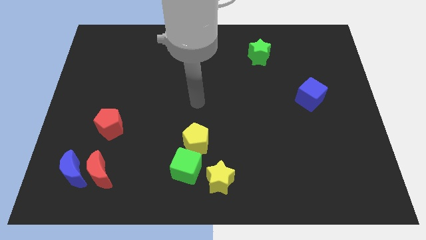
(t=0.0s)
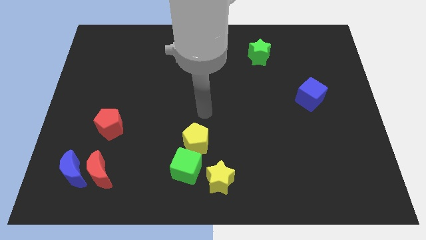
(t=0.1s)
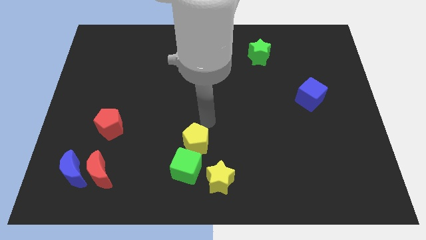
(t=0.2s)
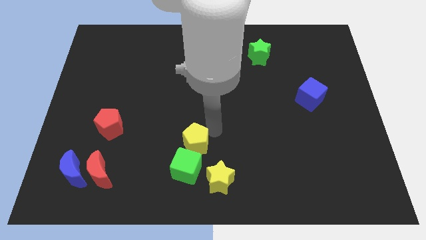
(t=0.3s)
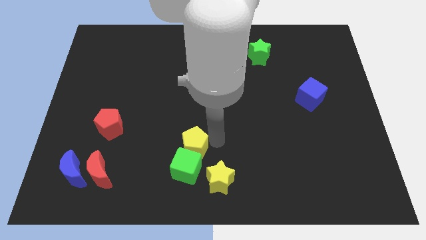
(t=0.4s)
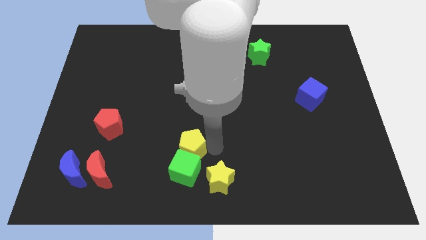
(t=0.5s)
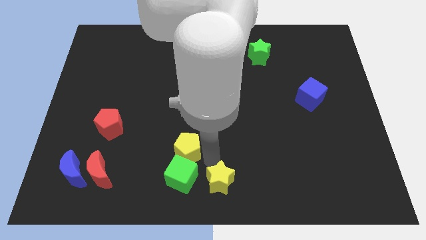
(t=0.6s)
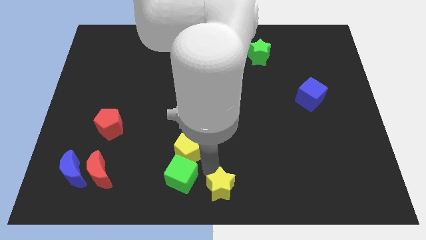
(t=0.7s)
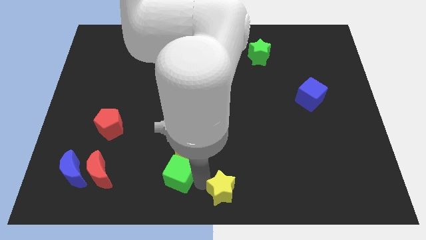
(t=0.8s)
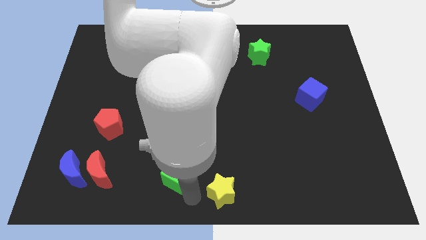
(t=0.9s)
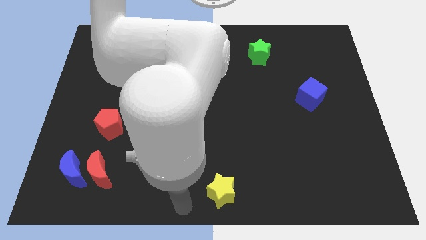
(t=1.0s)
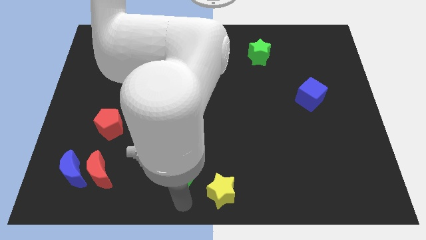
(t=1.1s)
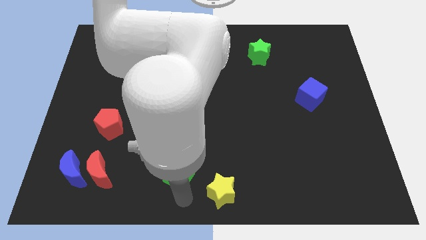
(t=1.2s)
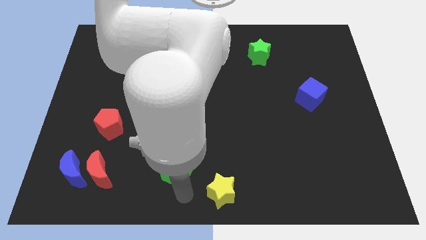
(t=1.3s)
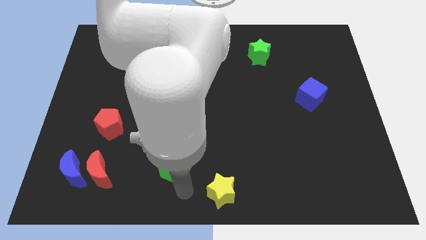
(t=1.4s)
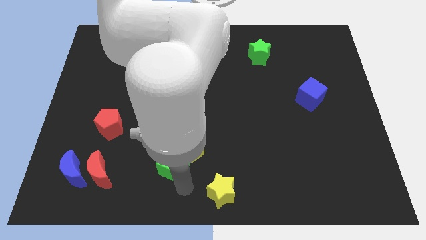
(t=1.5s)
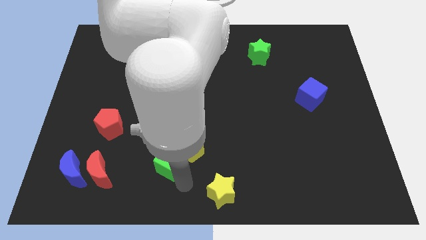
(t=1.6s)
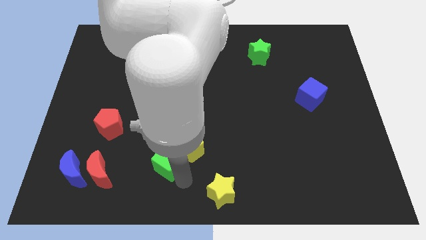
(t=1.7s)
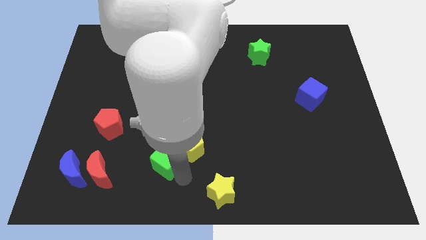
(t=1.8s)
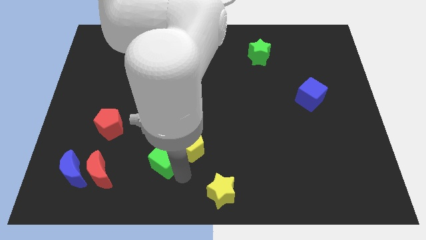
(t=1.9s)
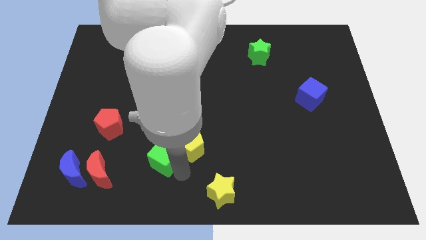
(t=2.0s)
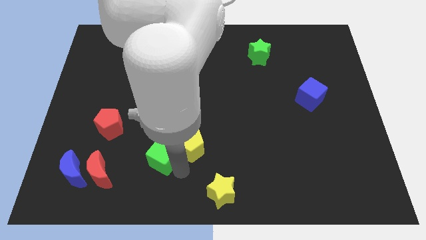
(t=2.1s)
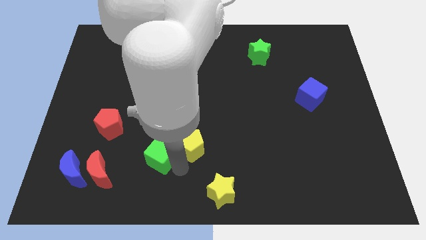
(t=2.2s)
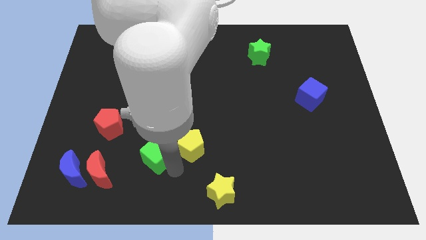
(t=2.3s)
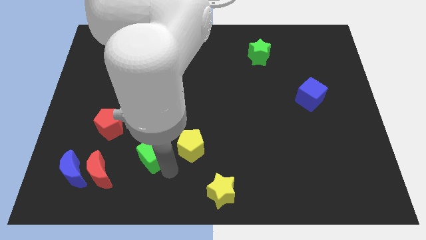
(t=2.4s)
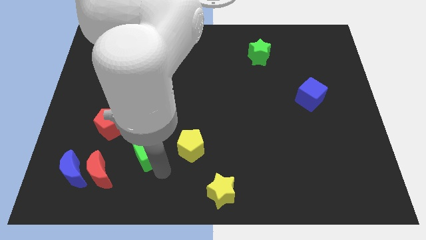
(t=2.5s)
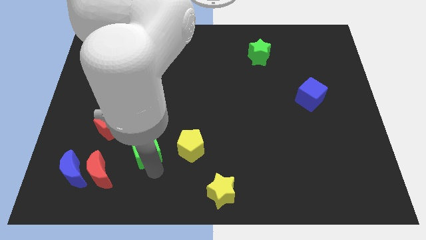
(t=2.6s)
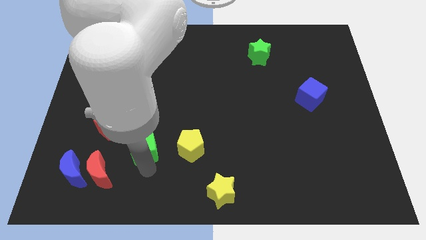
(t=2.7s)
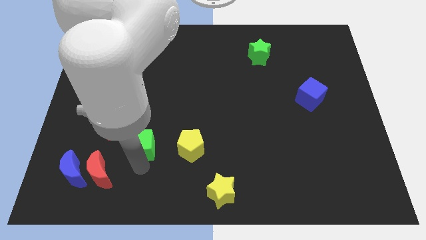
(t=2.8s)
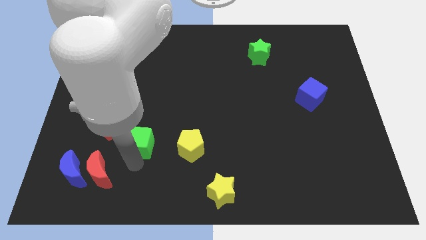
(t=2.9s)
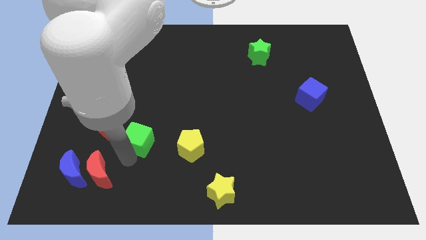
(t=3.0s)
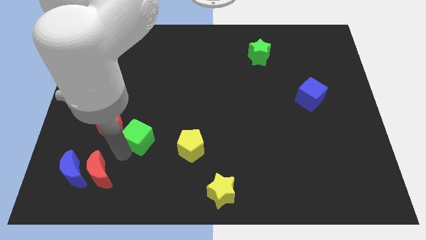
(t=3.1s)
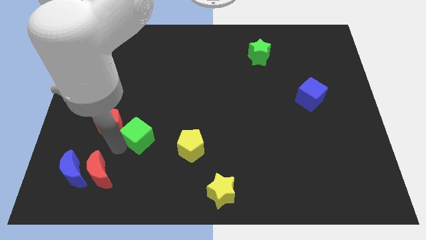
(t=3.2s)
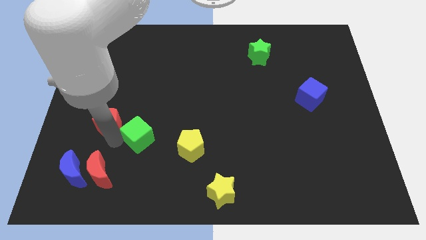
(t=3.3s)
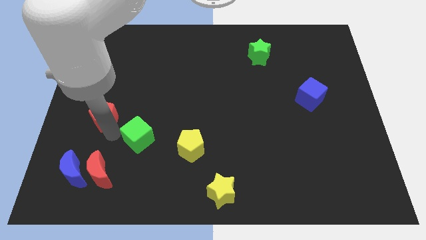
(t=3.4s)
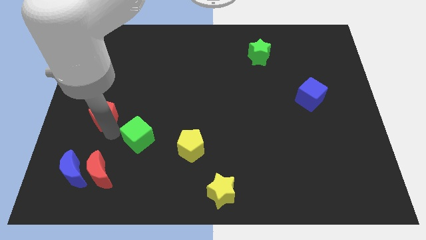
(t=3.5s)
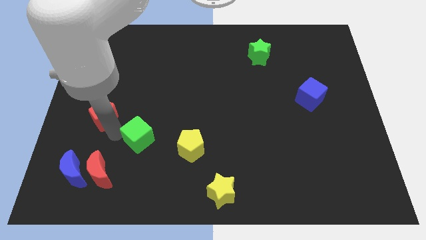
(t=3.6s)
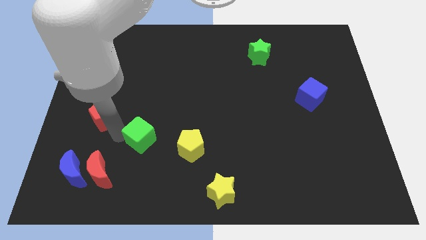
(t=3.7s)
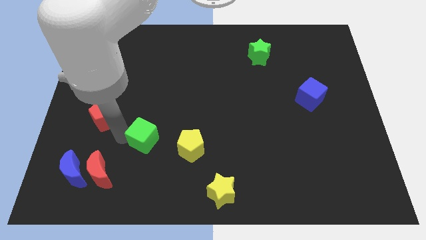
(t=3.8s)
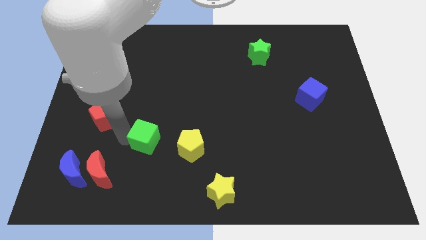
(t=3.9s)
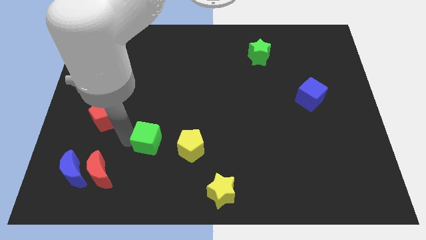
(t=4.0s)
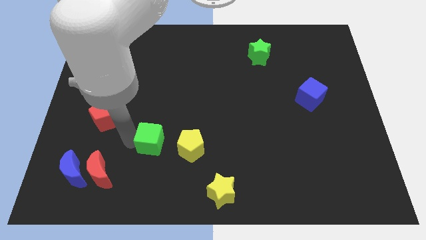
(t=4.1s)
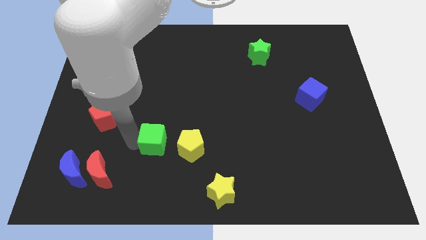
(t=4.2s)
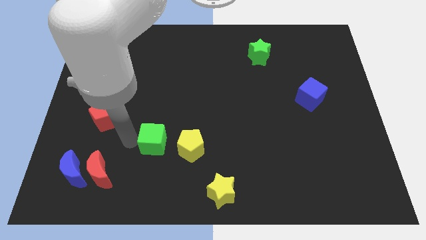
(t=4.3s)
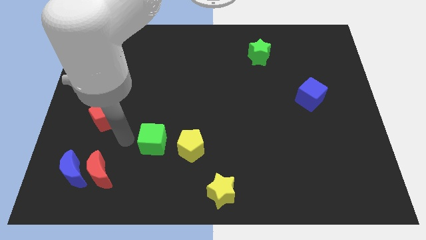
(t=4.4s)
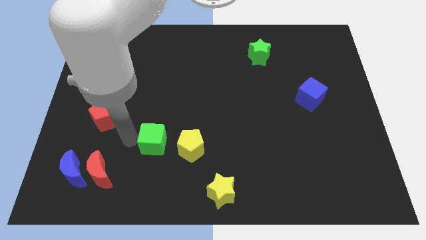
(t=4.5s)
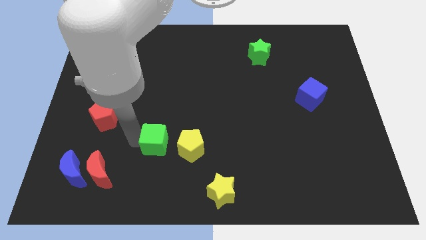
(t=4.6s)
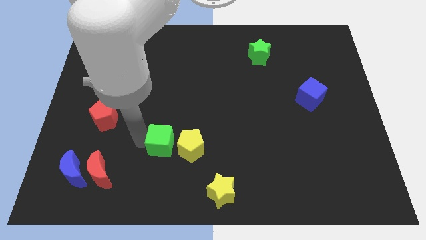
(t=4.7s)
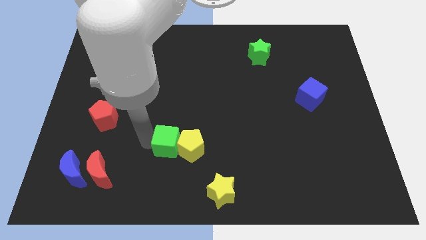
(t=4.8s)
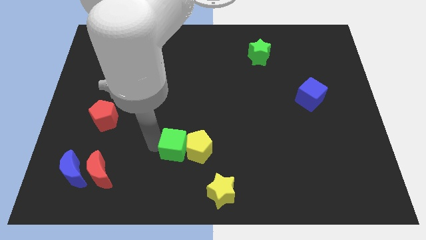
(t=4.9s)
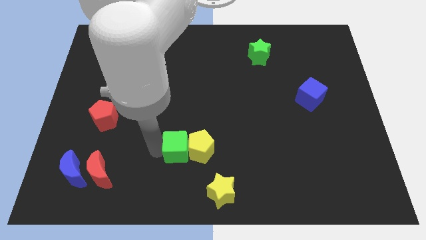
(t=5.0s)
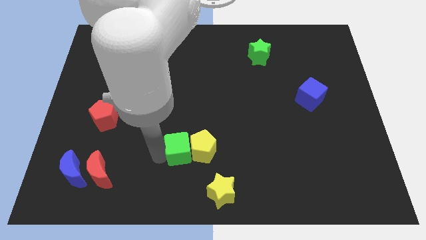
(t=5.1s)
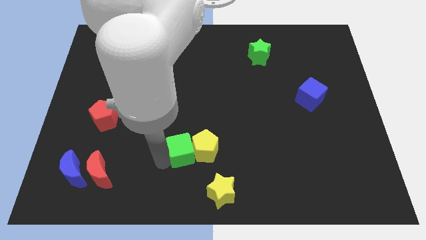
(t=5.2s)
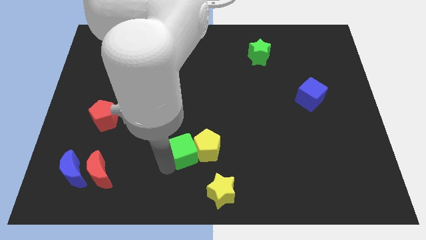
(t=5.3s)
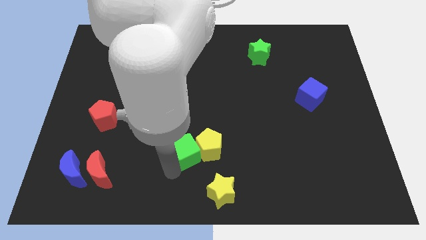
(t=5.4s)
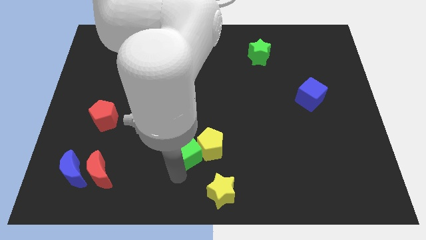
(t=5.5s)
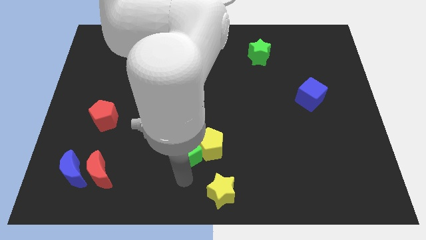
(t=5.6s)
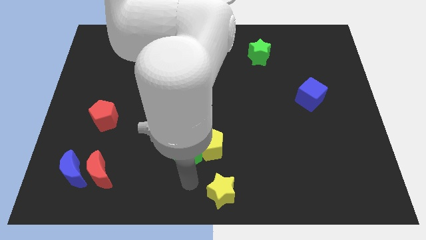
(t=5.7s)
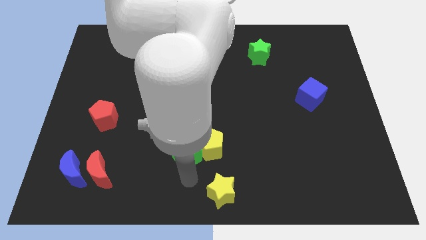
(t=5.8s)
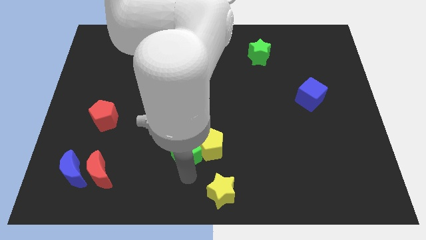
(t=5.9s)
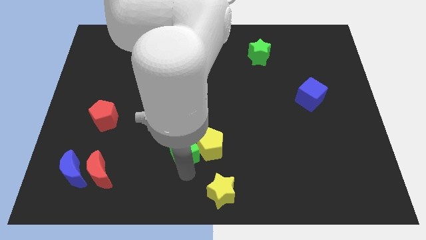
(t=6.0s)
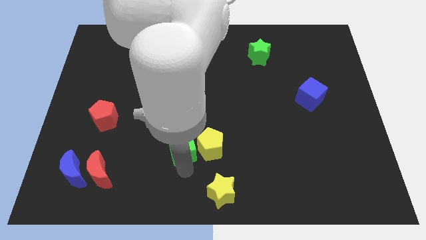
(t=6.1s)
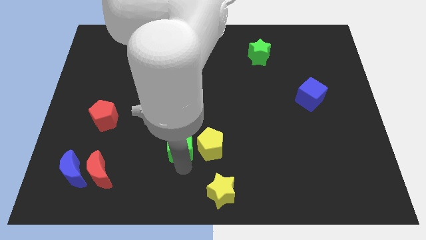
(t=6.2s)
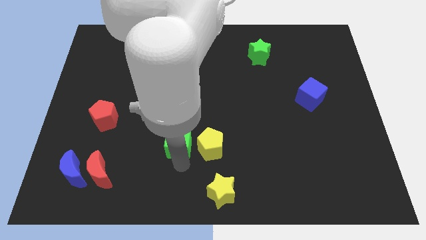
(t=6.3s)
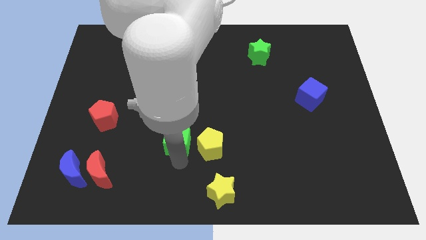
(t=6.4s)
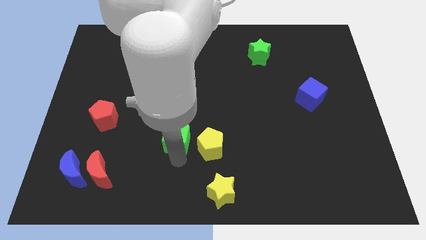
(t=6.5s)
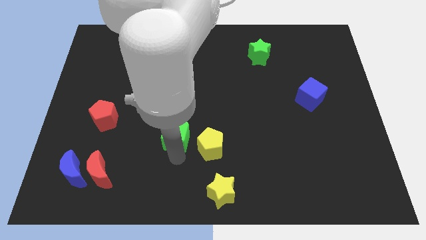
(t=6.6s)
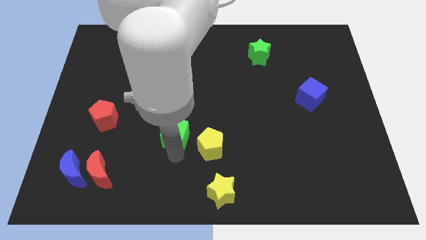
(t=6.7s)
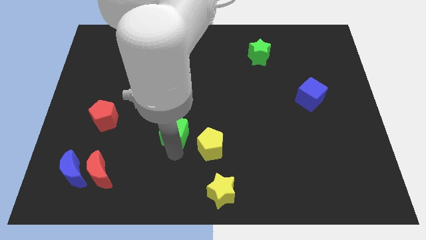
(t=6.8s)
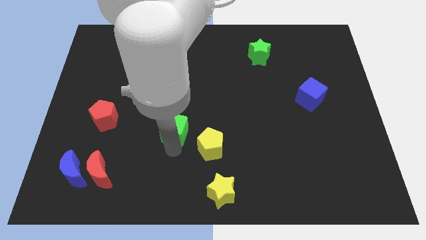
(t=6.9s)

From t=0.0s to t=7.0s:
push the green cube to the center of the board
